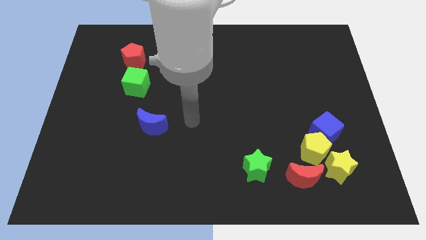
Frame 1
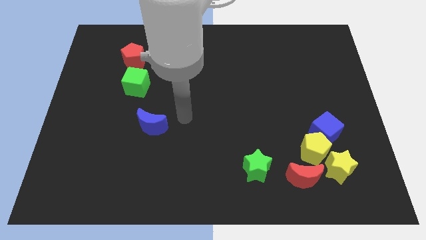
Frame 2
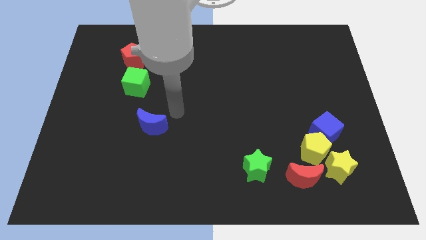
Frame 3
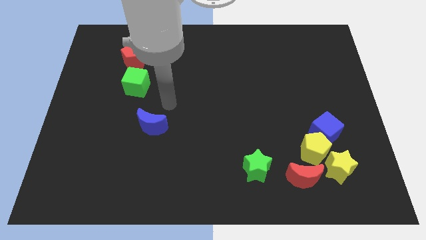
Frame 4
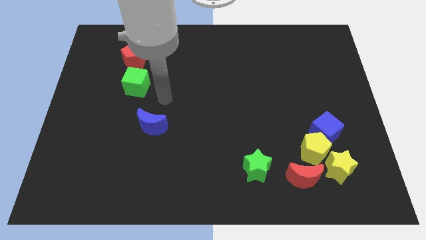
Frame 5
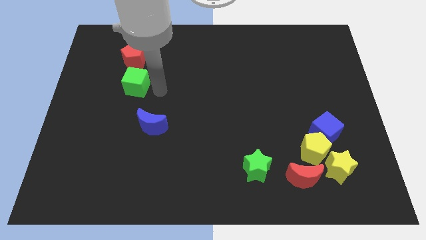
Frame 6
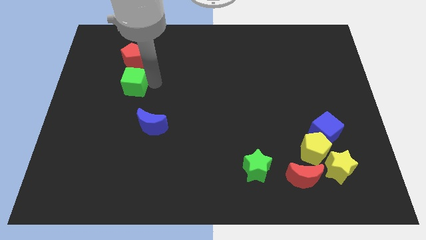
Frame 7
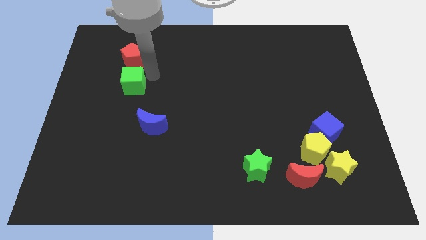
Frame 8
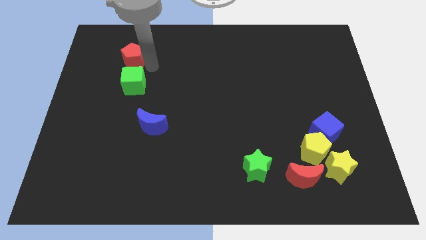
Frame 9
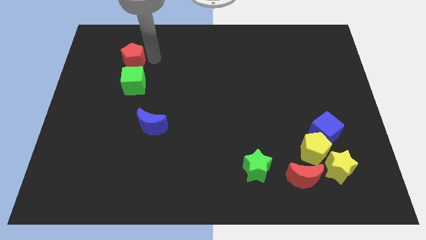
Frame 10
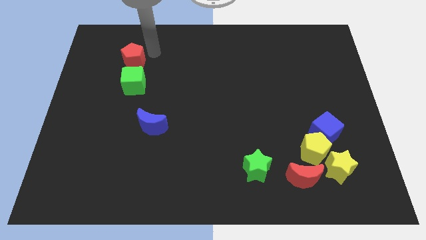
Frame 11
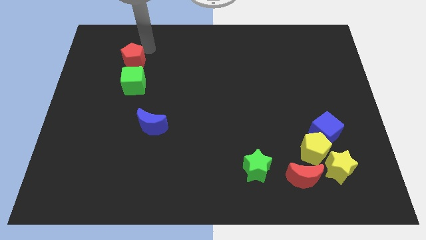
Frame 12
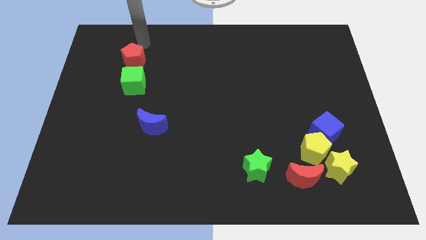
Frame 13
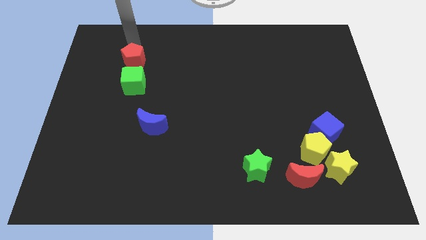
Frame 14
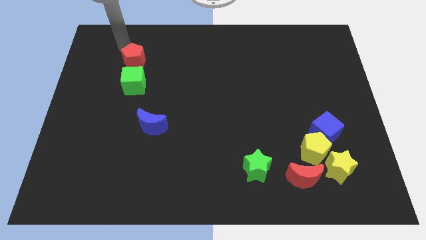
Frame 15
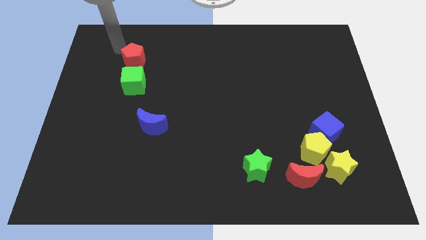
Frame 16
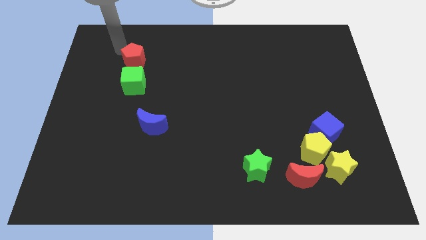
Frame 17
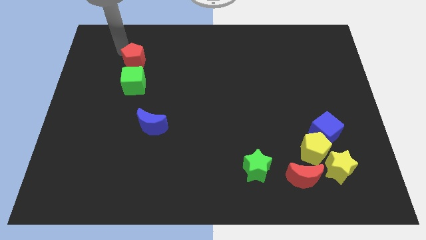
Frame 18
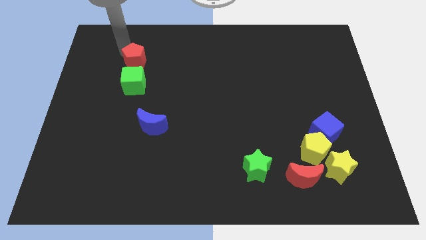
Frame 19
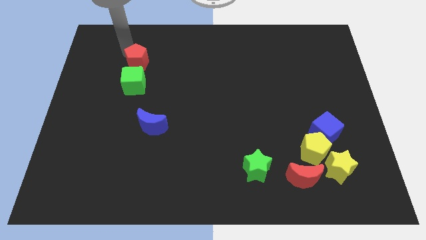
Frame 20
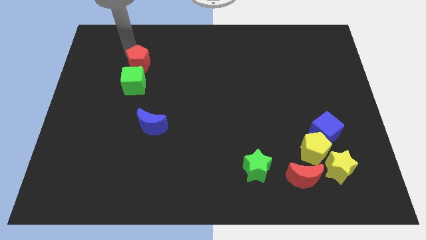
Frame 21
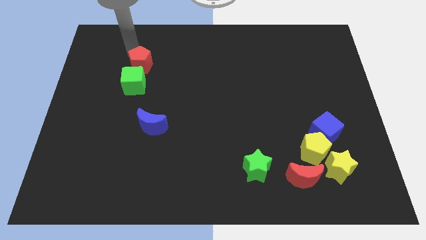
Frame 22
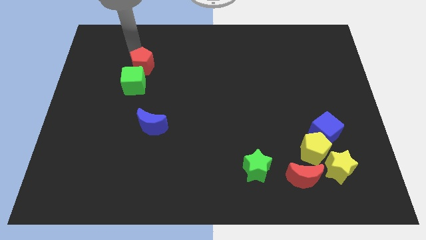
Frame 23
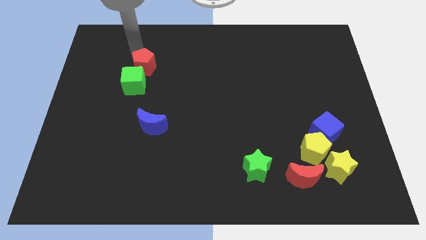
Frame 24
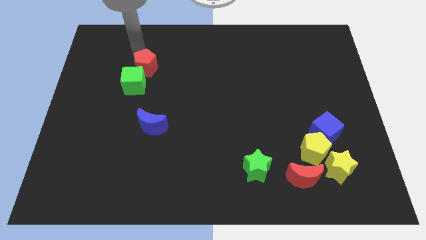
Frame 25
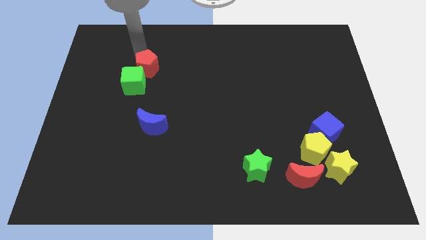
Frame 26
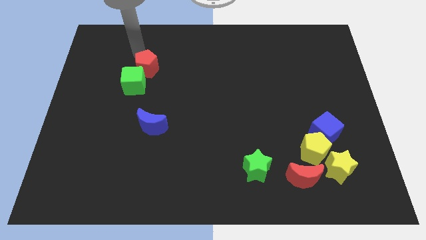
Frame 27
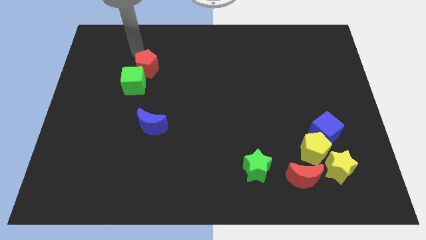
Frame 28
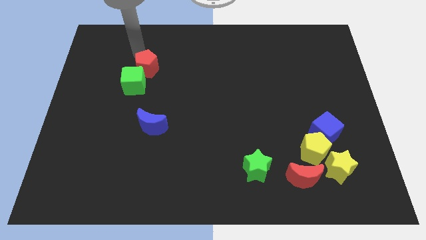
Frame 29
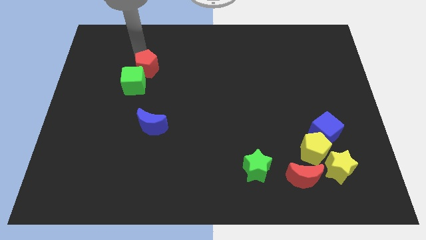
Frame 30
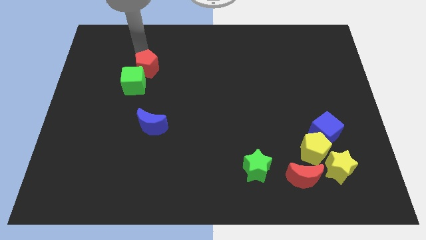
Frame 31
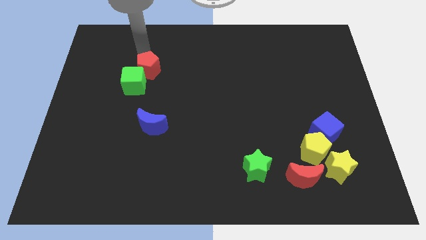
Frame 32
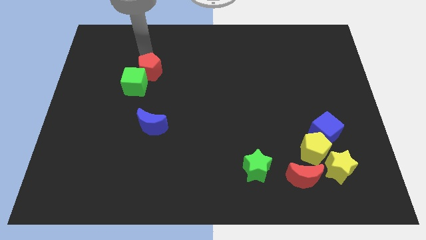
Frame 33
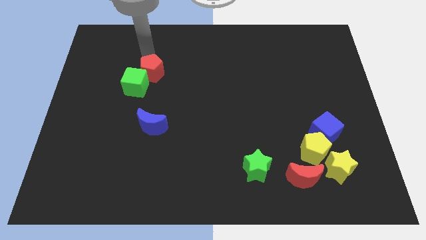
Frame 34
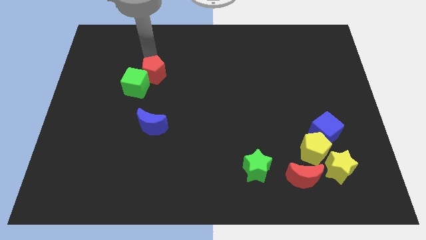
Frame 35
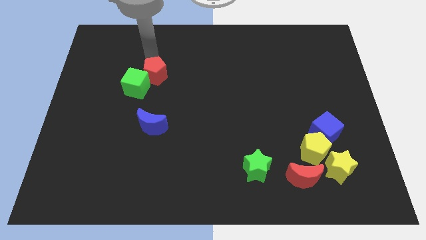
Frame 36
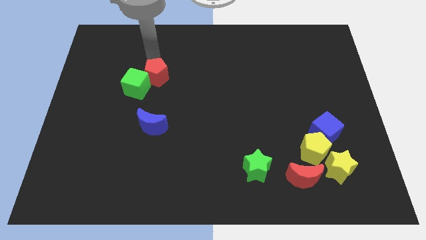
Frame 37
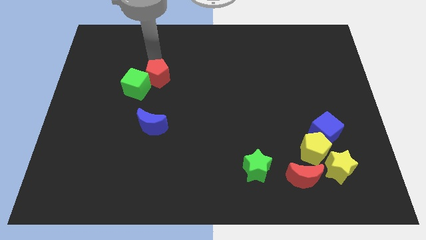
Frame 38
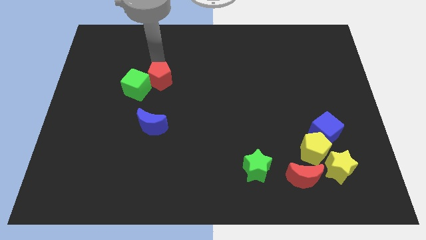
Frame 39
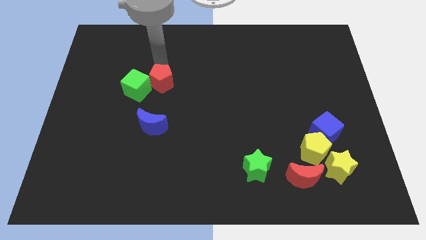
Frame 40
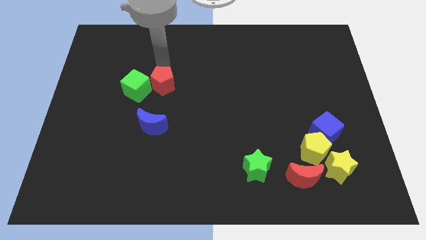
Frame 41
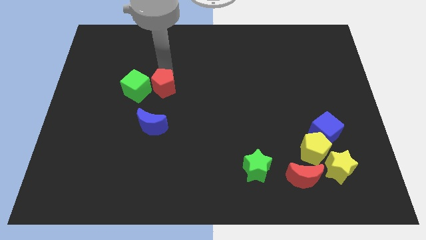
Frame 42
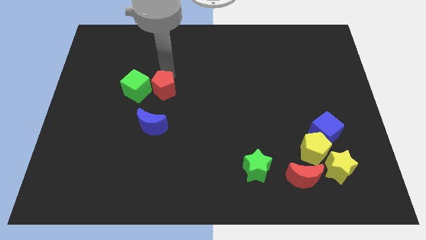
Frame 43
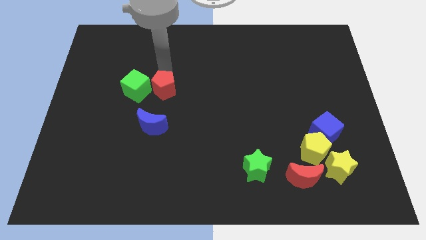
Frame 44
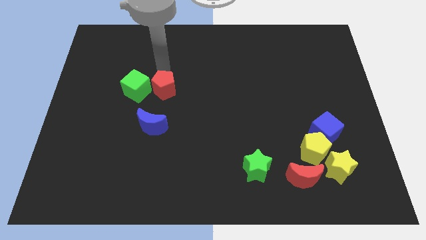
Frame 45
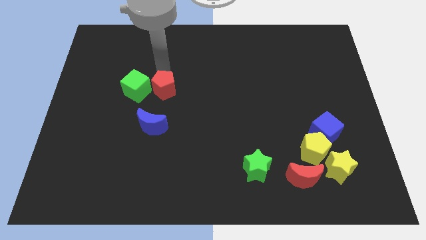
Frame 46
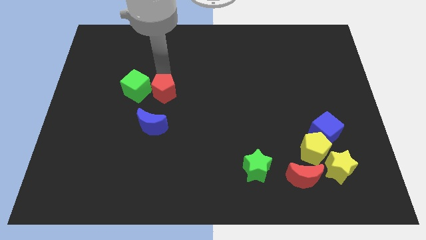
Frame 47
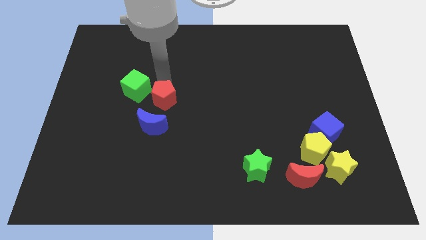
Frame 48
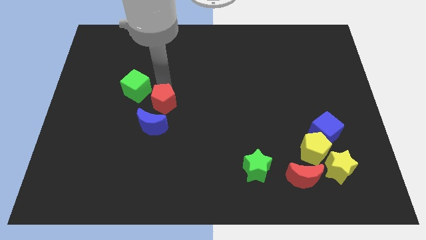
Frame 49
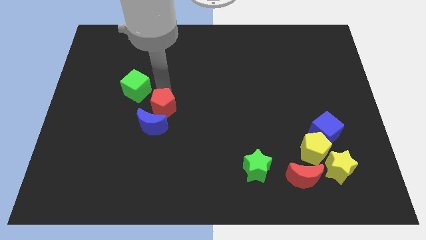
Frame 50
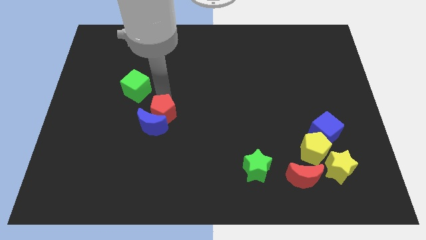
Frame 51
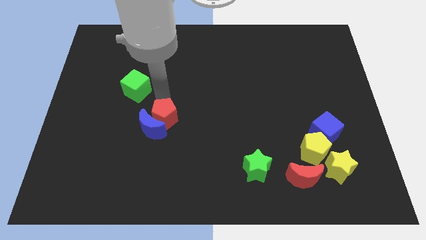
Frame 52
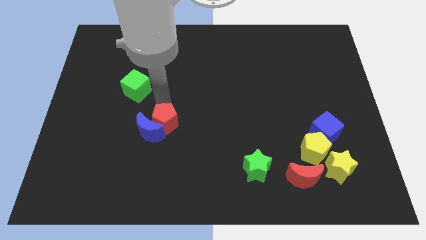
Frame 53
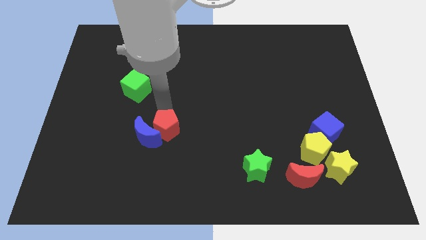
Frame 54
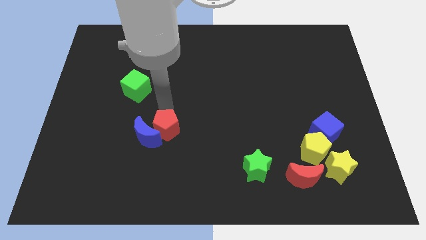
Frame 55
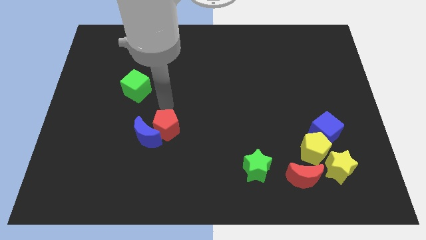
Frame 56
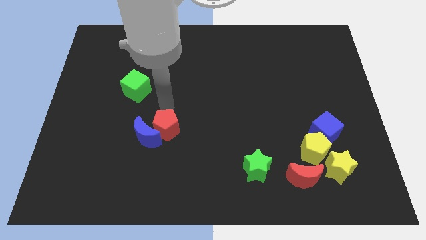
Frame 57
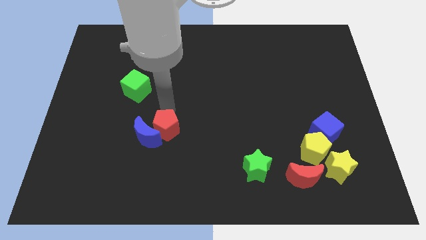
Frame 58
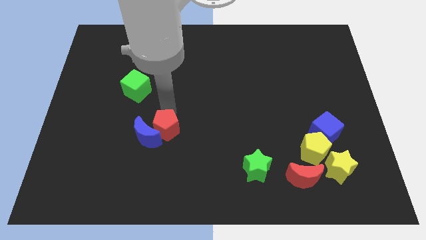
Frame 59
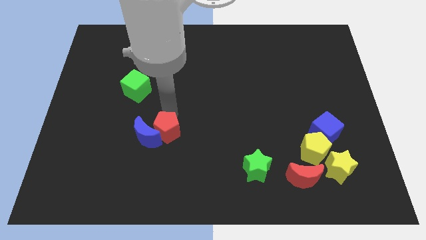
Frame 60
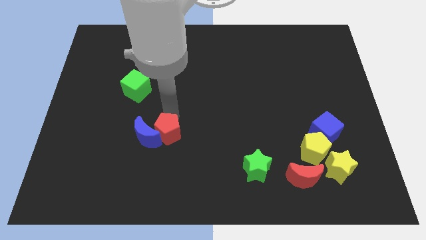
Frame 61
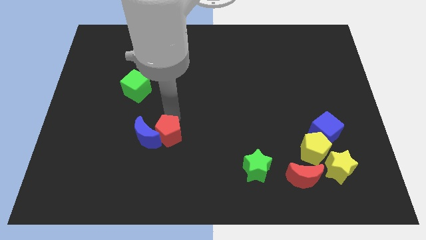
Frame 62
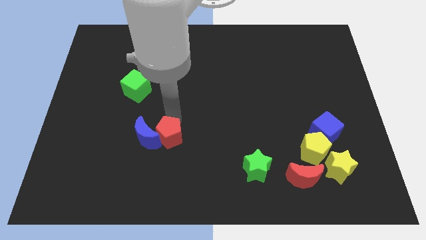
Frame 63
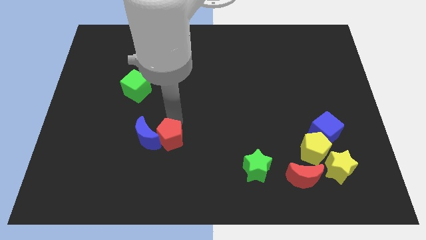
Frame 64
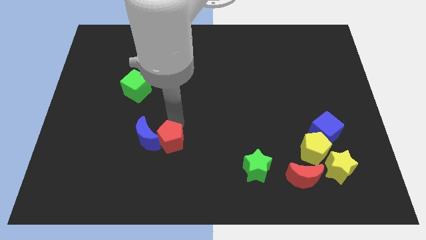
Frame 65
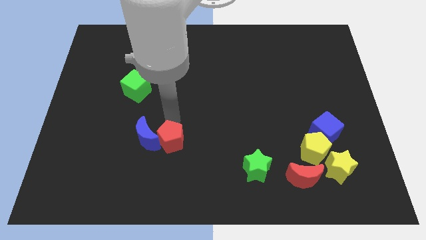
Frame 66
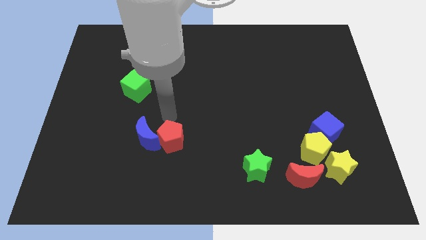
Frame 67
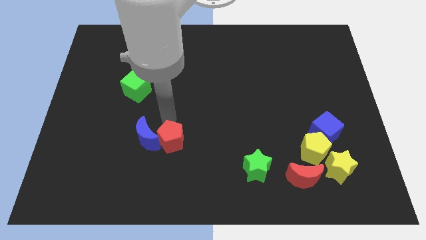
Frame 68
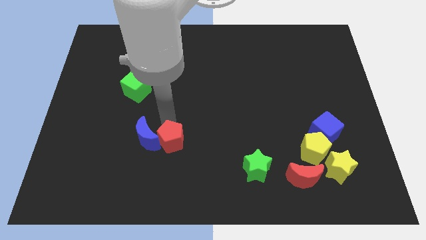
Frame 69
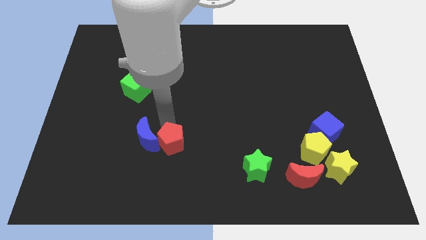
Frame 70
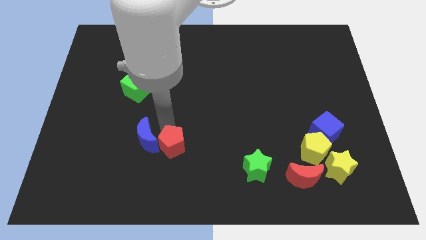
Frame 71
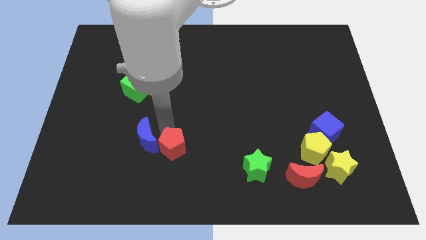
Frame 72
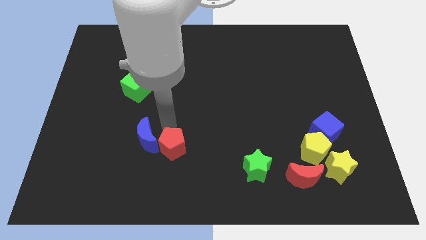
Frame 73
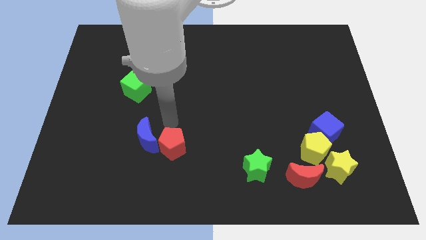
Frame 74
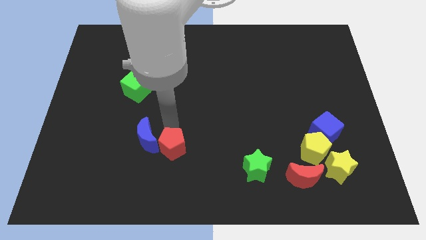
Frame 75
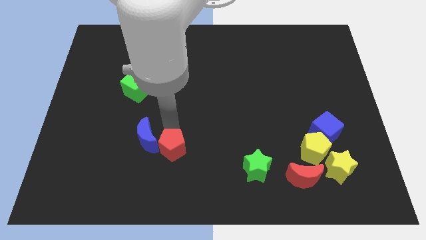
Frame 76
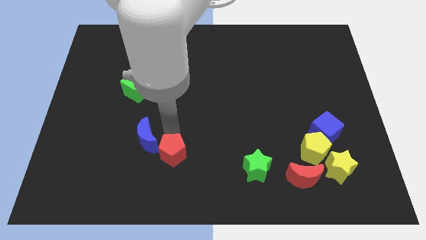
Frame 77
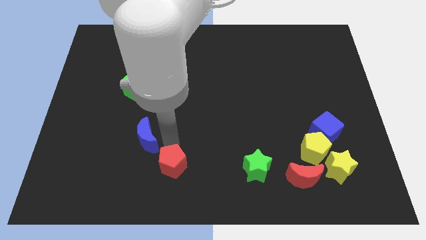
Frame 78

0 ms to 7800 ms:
move the red pentagon to the bottom
